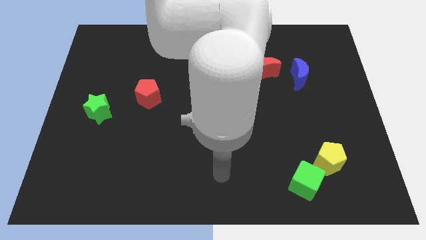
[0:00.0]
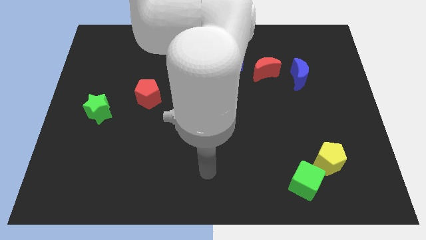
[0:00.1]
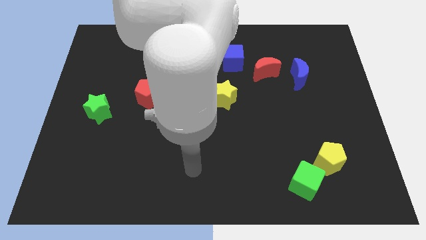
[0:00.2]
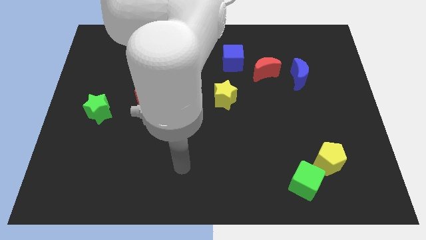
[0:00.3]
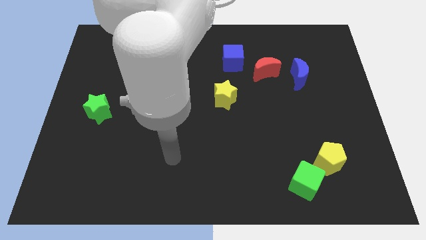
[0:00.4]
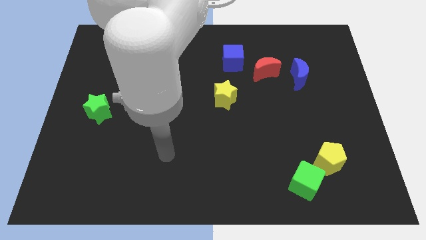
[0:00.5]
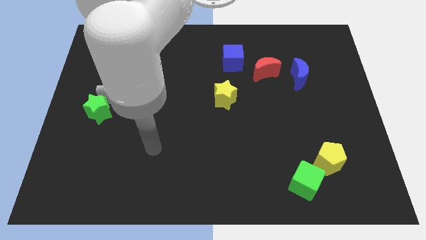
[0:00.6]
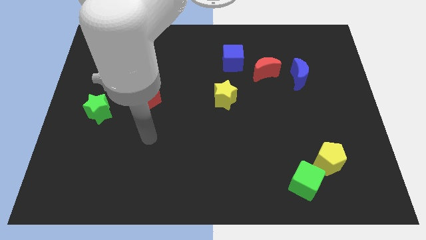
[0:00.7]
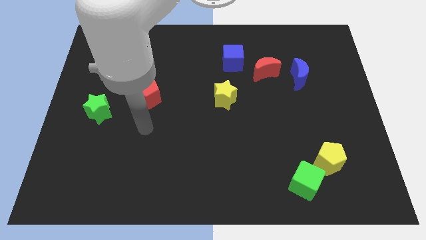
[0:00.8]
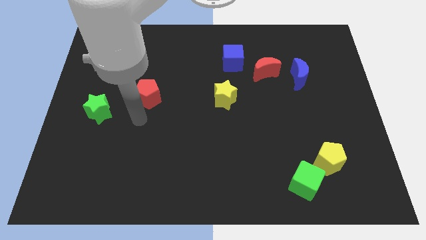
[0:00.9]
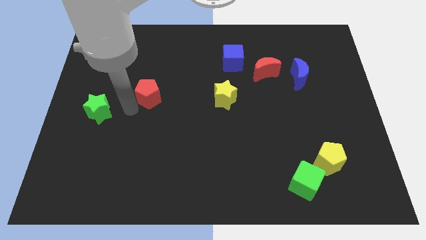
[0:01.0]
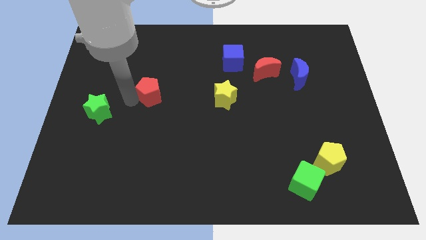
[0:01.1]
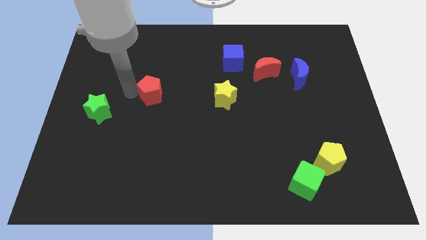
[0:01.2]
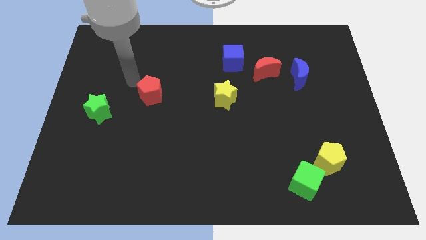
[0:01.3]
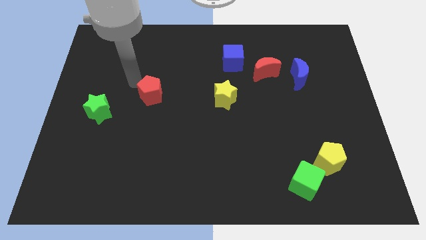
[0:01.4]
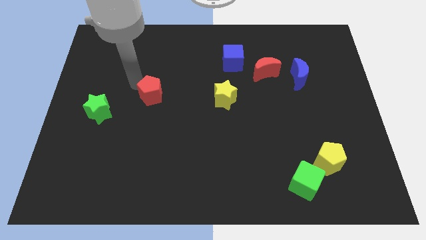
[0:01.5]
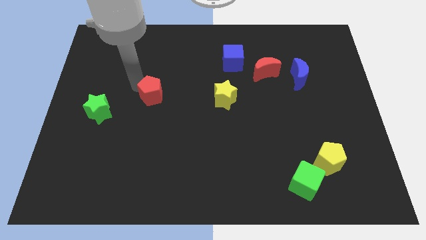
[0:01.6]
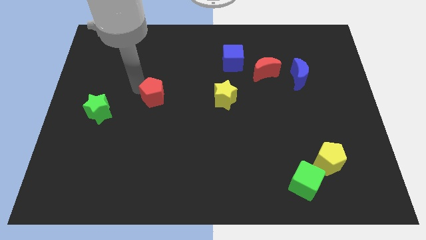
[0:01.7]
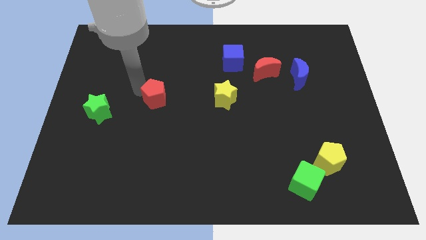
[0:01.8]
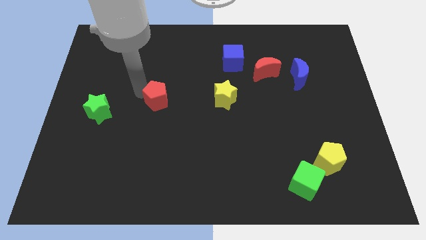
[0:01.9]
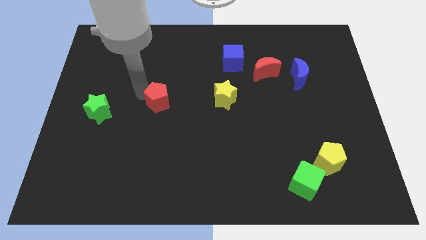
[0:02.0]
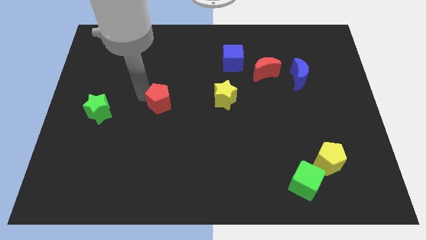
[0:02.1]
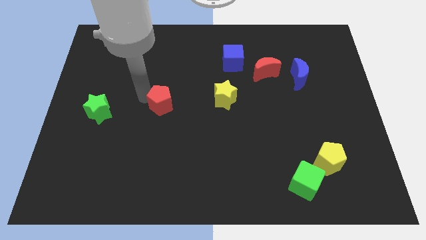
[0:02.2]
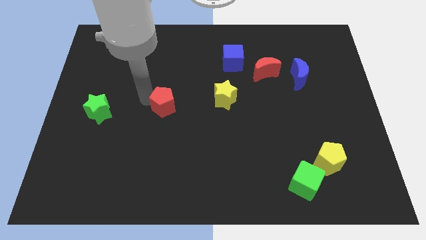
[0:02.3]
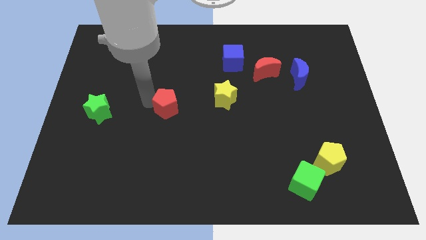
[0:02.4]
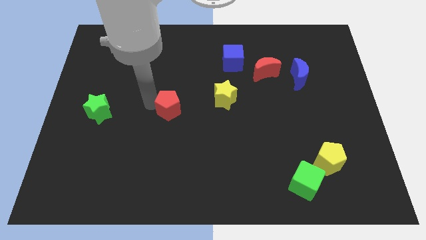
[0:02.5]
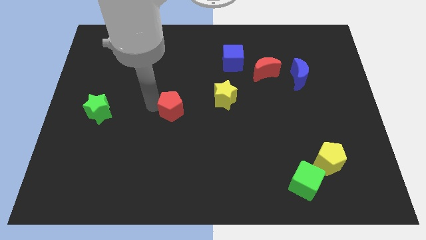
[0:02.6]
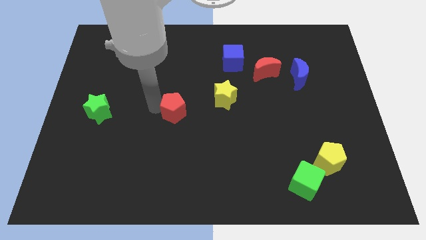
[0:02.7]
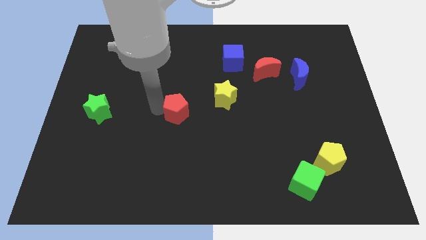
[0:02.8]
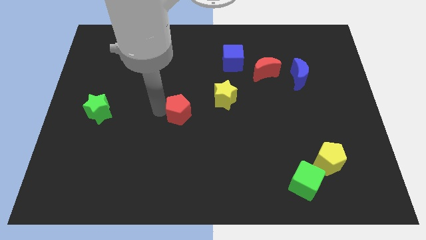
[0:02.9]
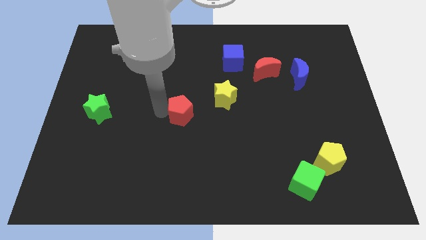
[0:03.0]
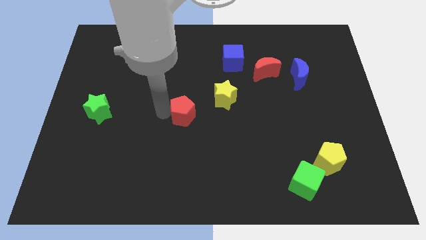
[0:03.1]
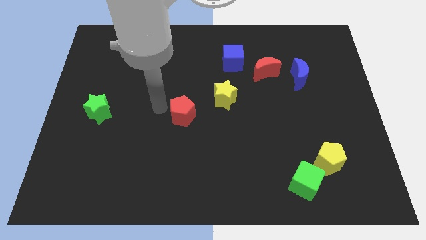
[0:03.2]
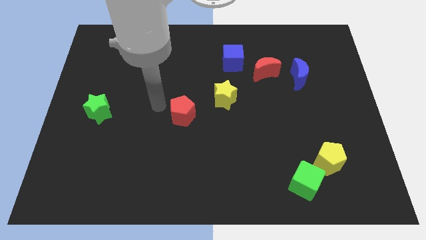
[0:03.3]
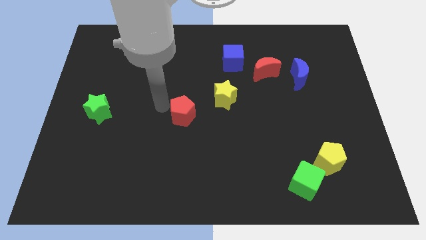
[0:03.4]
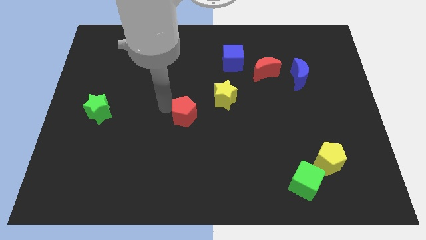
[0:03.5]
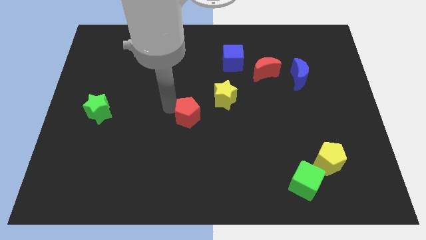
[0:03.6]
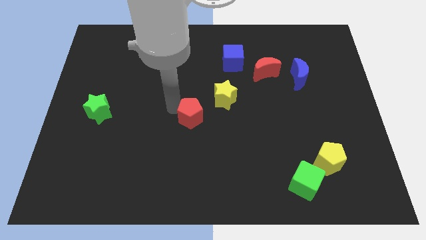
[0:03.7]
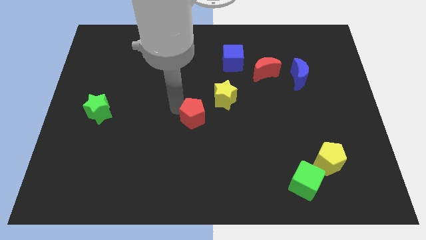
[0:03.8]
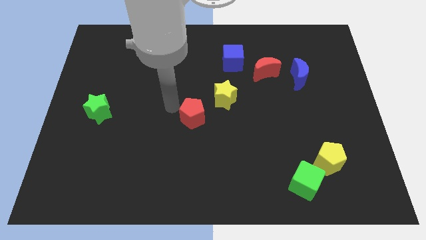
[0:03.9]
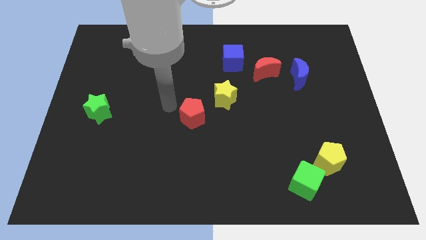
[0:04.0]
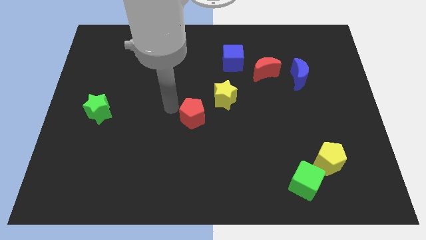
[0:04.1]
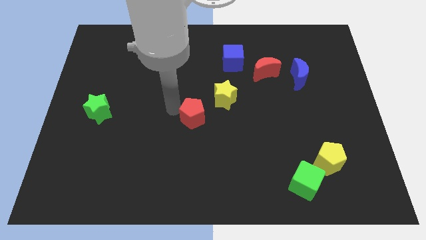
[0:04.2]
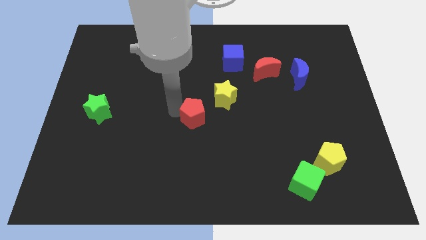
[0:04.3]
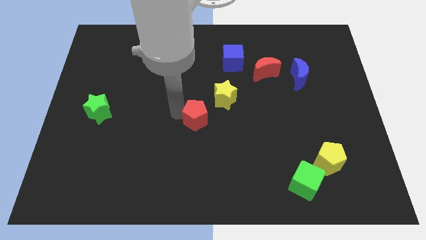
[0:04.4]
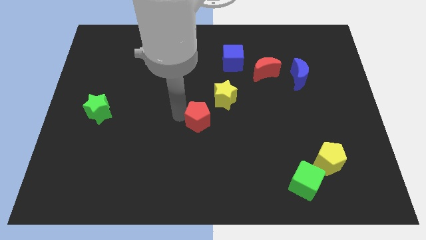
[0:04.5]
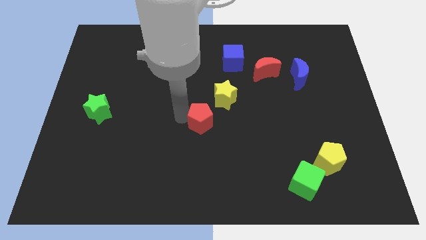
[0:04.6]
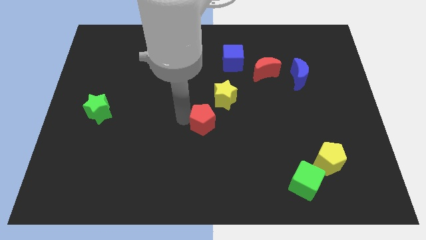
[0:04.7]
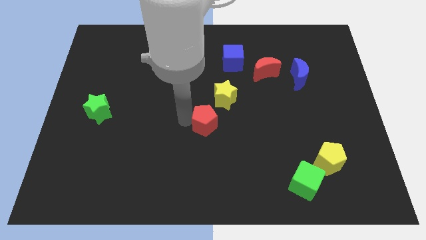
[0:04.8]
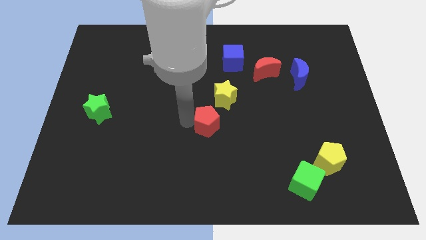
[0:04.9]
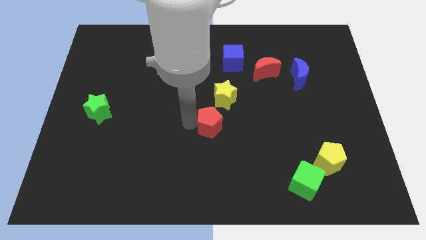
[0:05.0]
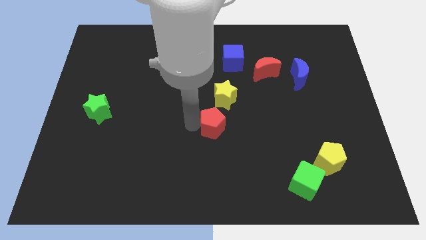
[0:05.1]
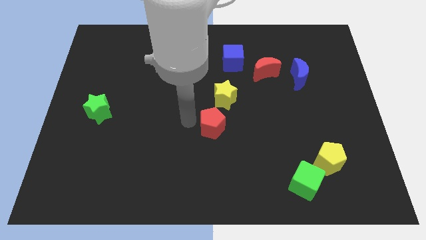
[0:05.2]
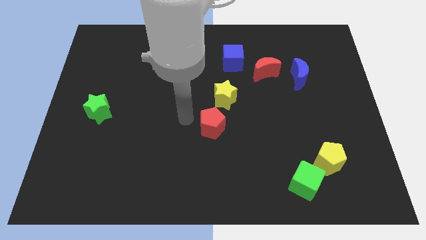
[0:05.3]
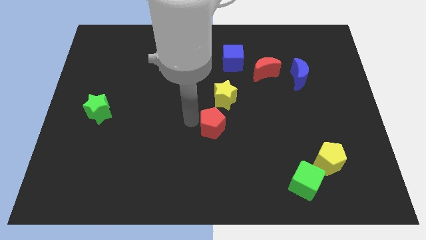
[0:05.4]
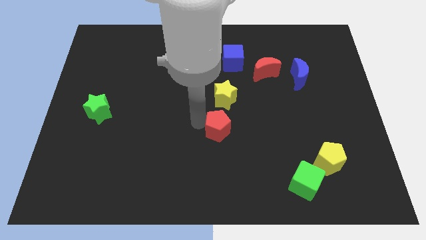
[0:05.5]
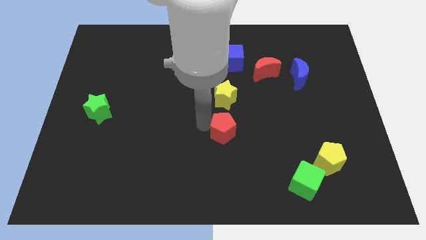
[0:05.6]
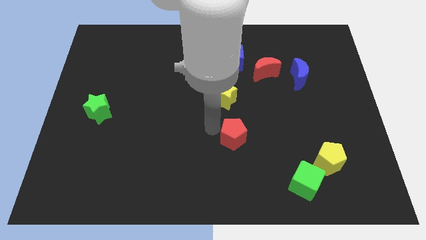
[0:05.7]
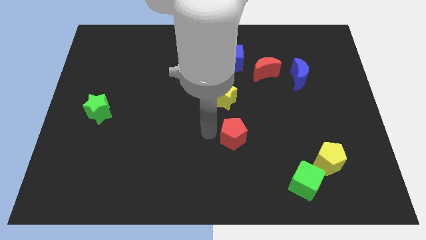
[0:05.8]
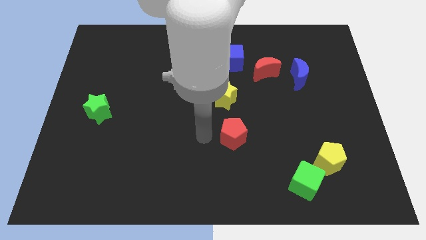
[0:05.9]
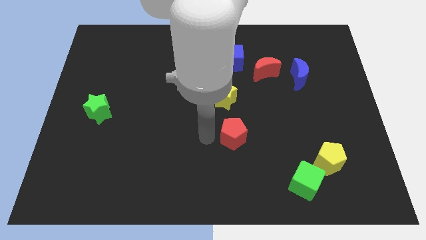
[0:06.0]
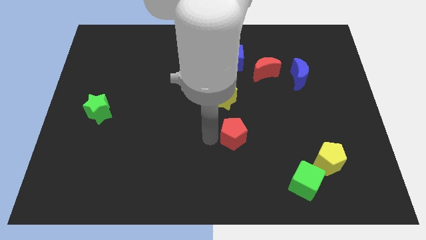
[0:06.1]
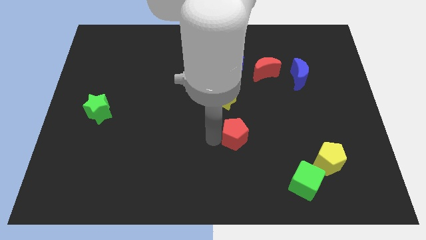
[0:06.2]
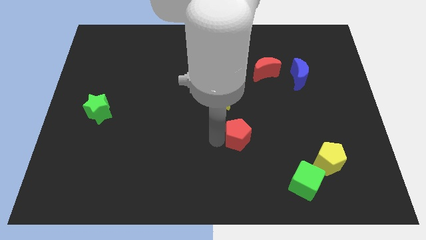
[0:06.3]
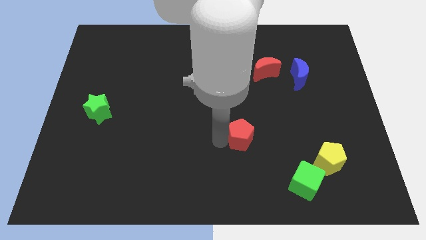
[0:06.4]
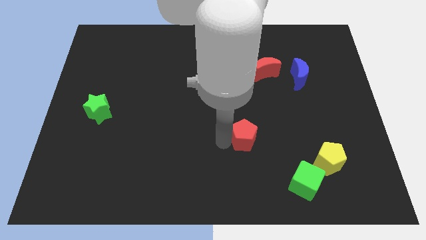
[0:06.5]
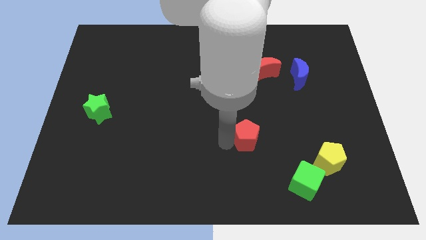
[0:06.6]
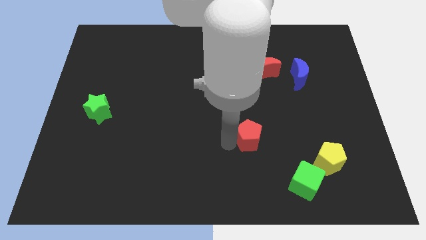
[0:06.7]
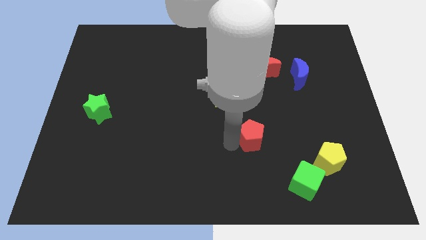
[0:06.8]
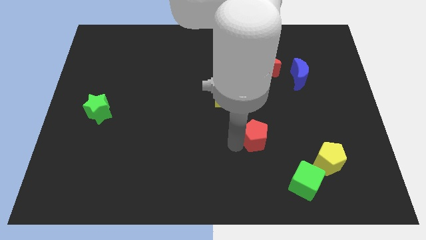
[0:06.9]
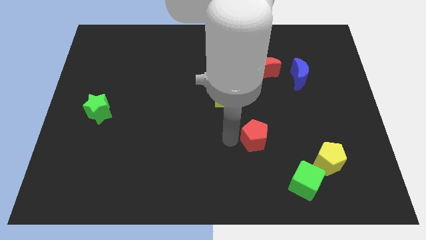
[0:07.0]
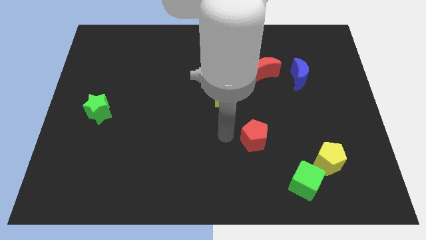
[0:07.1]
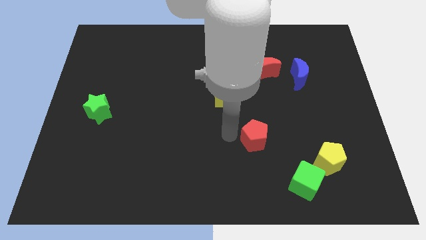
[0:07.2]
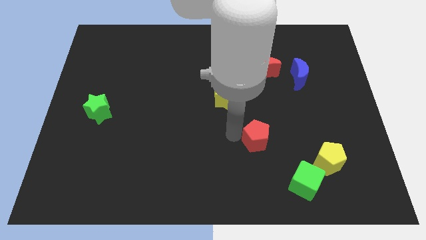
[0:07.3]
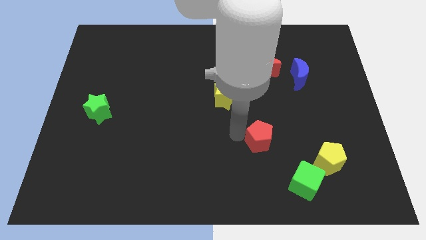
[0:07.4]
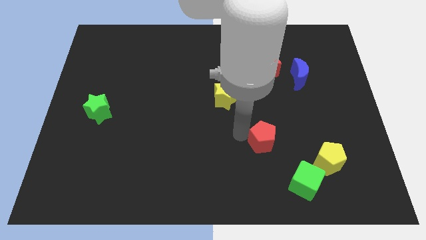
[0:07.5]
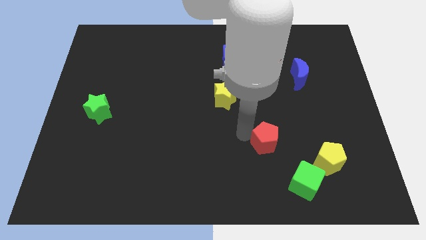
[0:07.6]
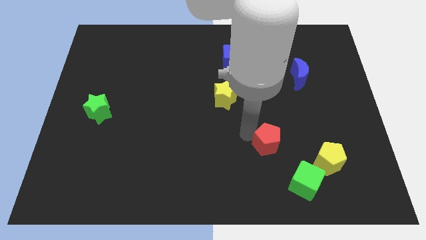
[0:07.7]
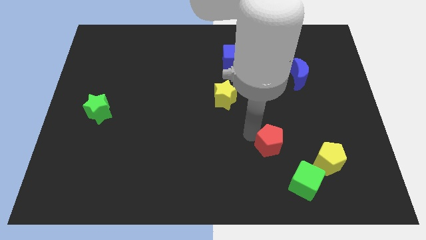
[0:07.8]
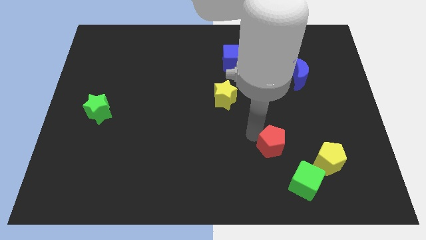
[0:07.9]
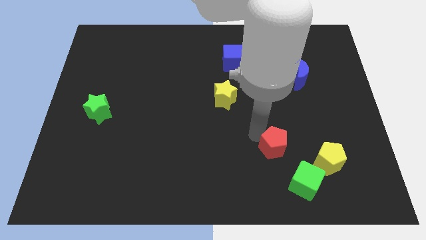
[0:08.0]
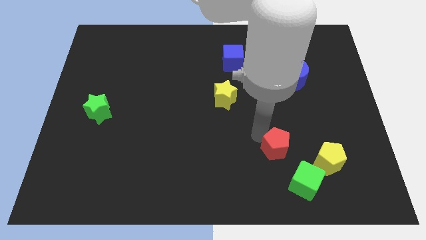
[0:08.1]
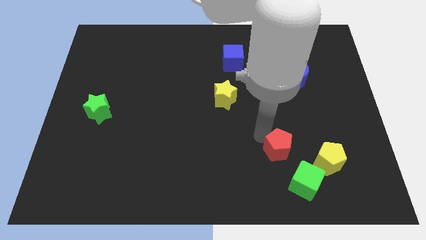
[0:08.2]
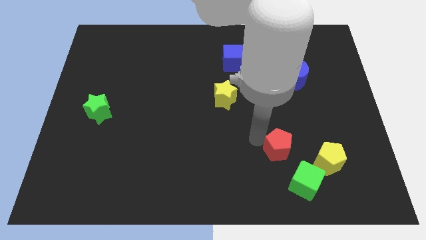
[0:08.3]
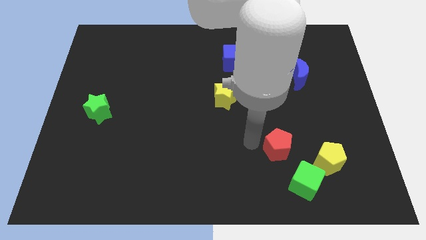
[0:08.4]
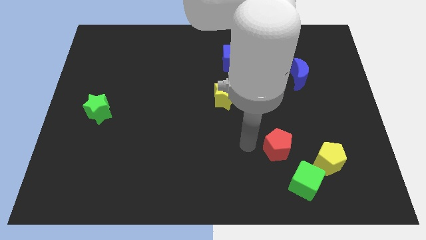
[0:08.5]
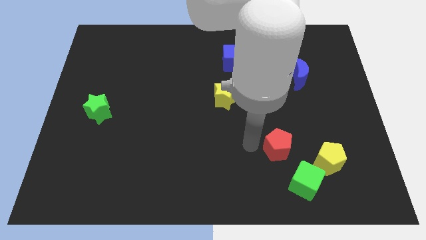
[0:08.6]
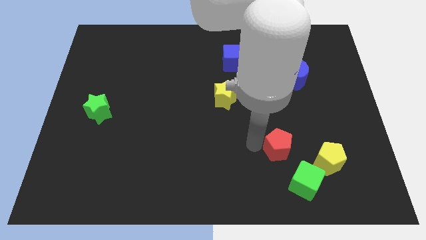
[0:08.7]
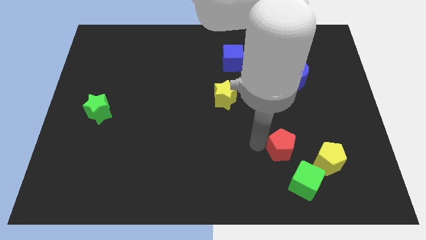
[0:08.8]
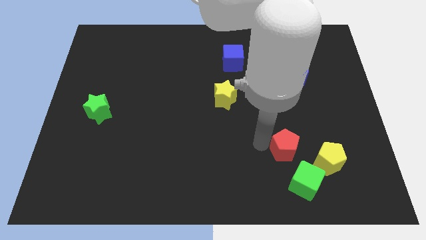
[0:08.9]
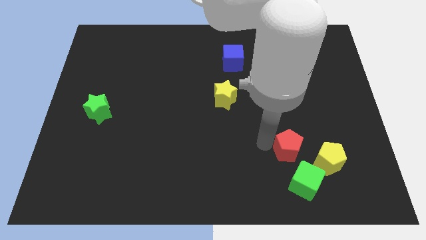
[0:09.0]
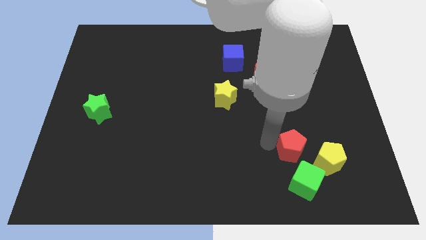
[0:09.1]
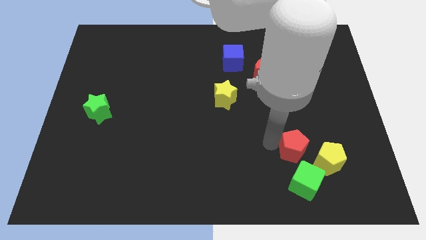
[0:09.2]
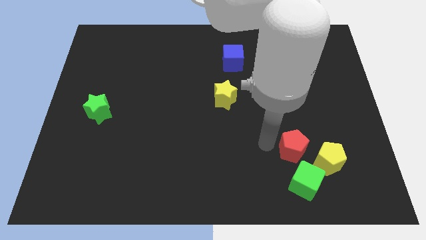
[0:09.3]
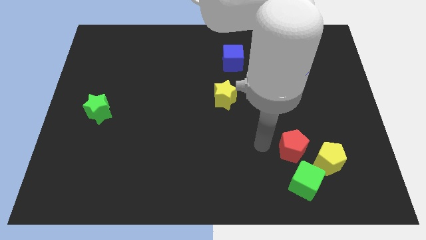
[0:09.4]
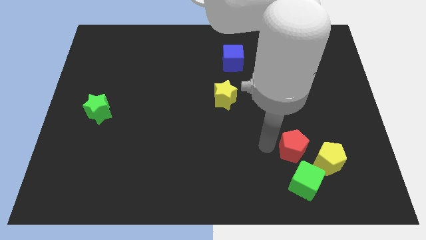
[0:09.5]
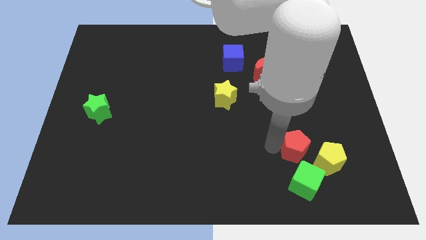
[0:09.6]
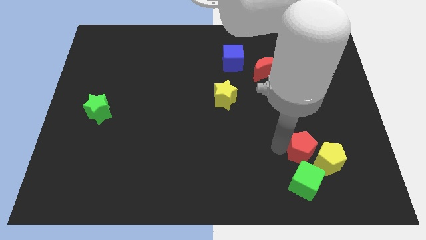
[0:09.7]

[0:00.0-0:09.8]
push the red pentagon towards the yellow pentagon
